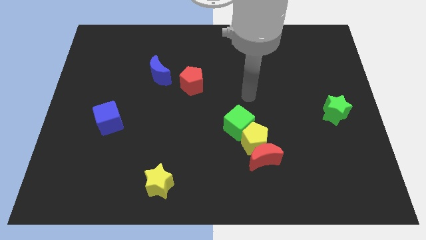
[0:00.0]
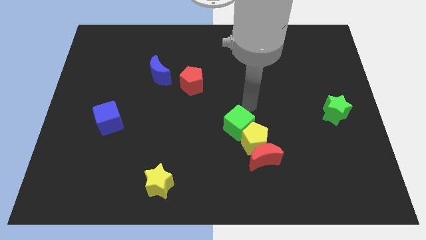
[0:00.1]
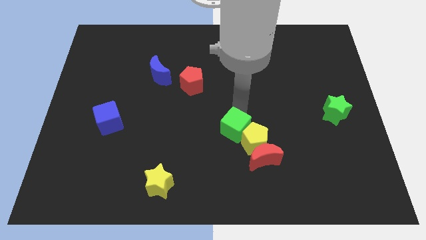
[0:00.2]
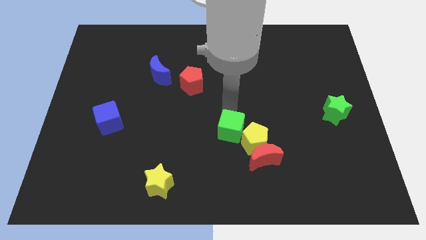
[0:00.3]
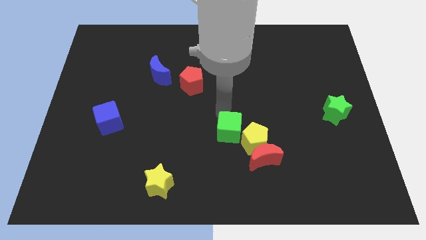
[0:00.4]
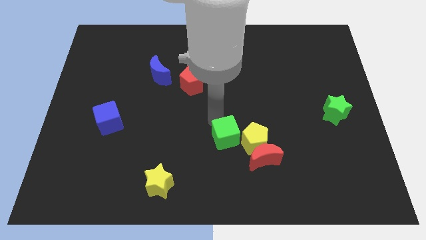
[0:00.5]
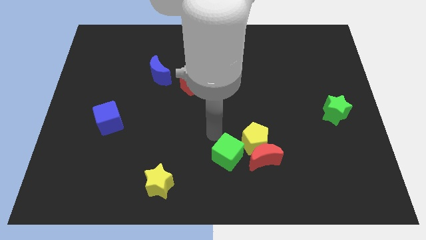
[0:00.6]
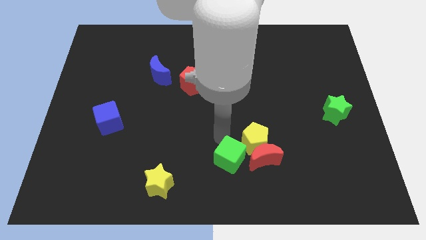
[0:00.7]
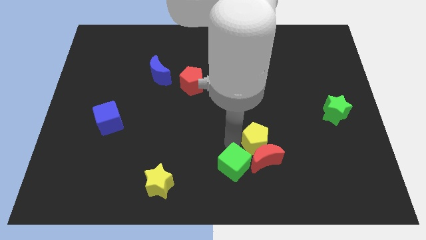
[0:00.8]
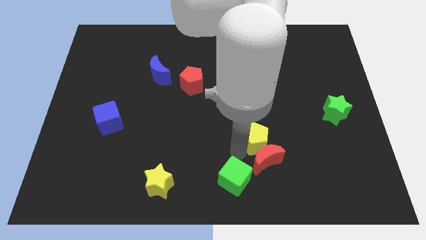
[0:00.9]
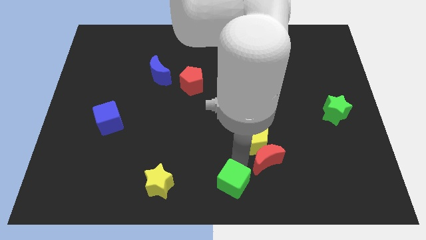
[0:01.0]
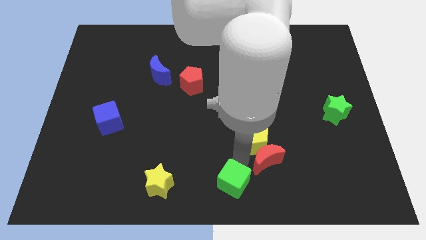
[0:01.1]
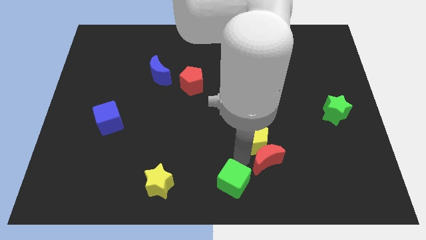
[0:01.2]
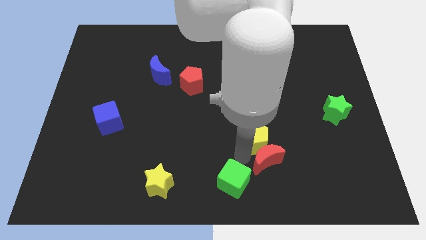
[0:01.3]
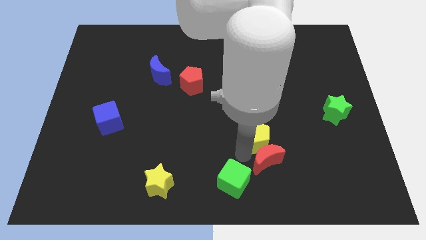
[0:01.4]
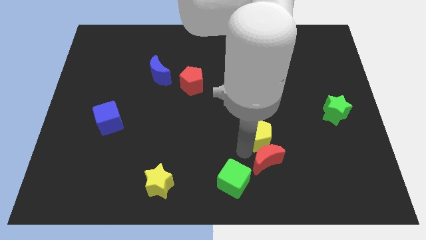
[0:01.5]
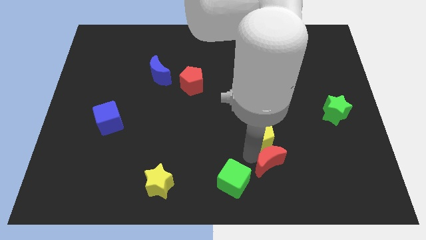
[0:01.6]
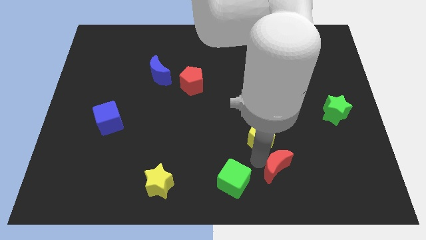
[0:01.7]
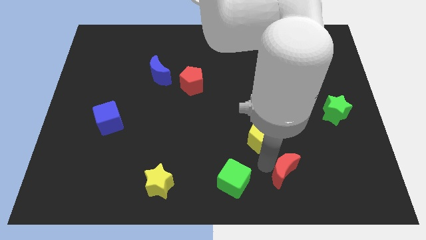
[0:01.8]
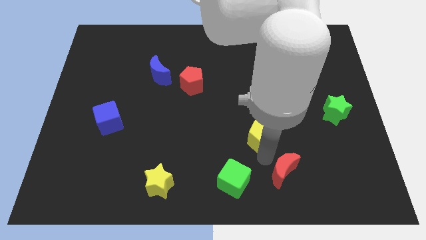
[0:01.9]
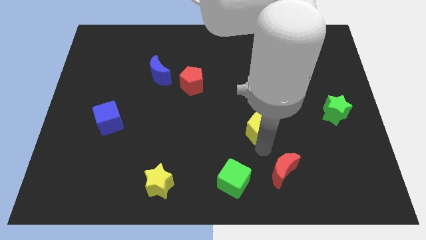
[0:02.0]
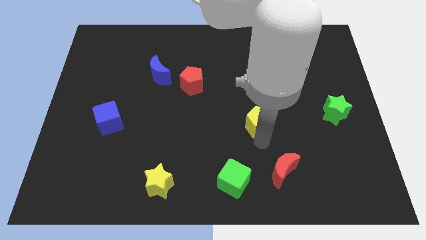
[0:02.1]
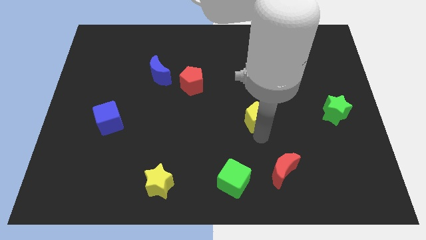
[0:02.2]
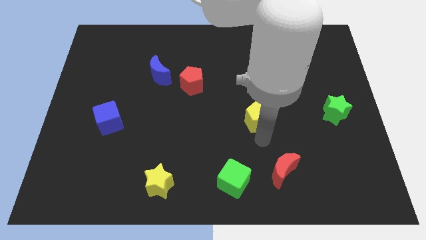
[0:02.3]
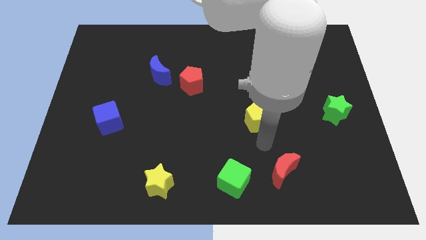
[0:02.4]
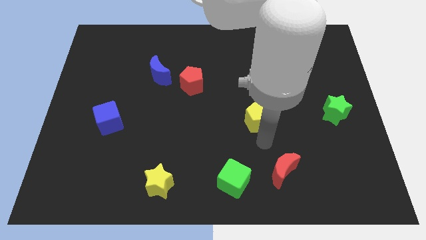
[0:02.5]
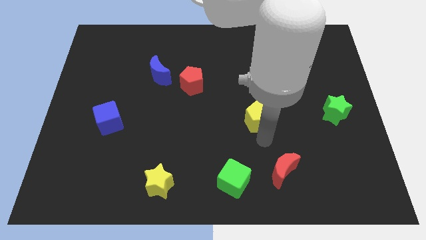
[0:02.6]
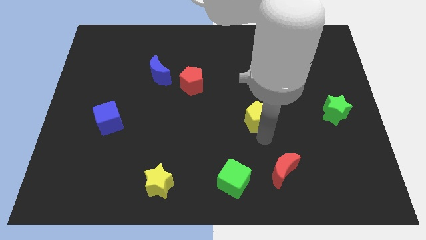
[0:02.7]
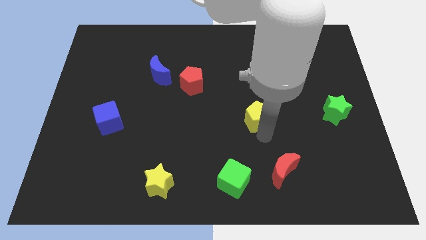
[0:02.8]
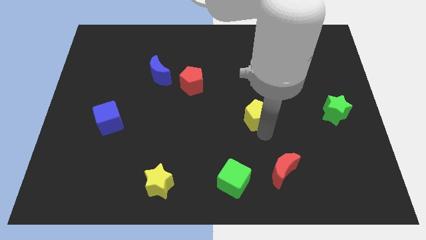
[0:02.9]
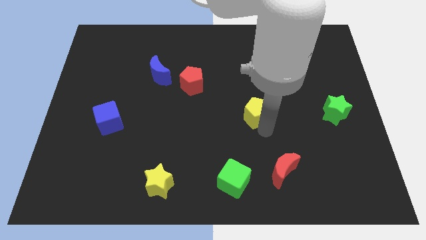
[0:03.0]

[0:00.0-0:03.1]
slightly slide the yellow pentagon upwards

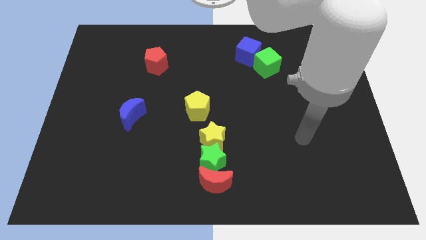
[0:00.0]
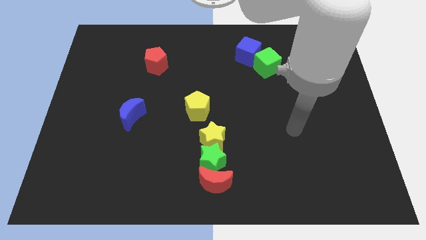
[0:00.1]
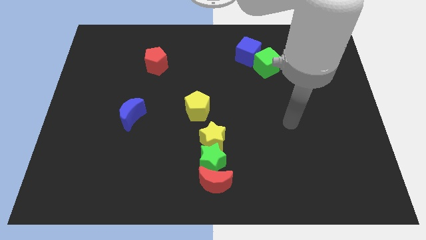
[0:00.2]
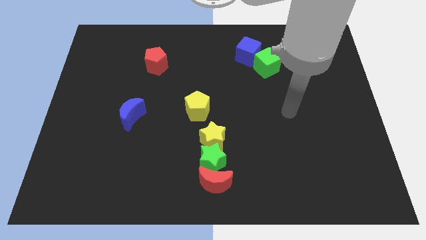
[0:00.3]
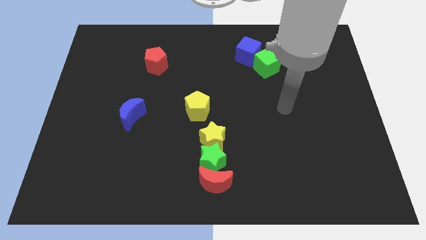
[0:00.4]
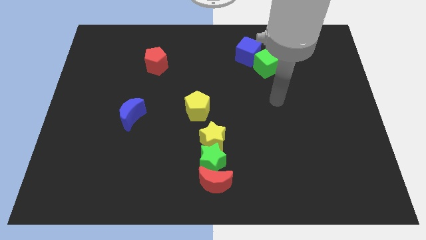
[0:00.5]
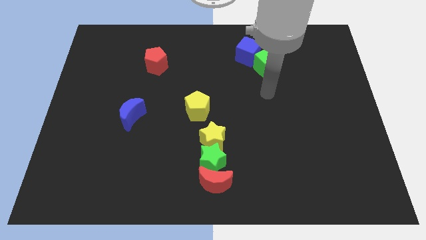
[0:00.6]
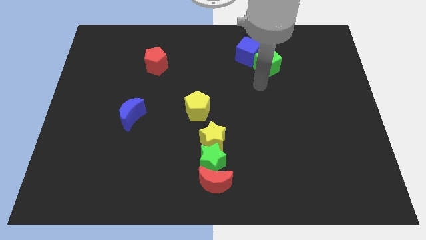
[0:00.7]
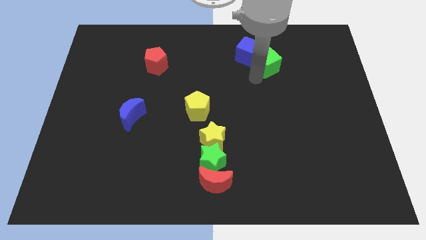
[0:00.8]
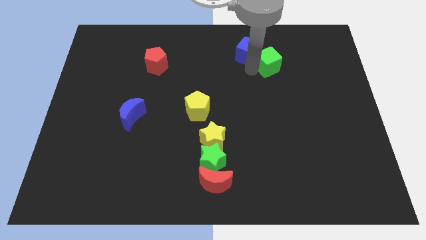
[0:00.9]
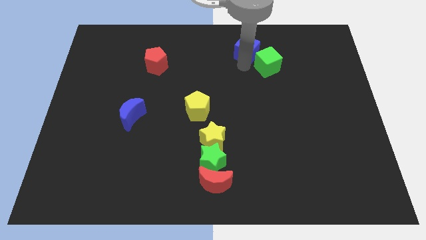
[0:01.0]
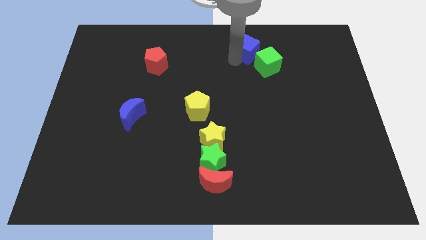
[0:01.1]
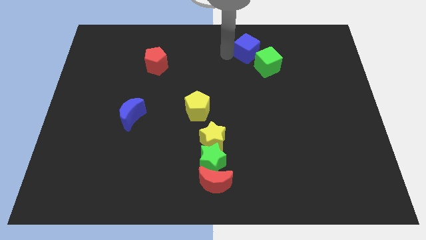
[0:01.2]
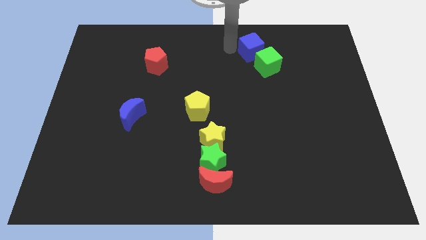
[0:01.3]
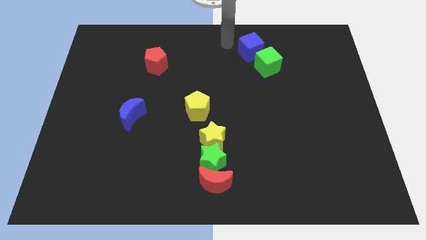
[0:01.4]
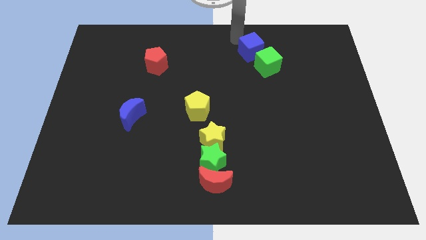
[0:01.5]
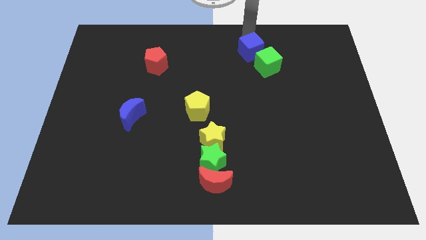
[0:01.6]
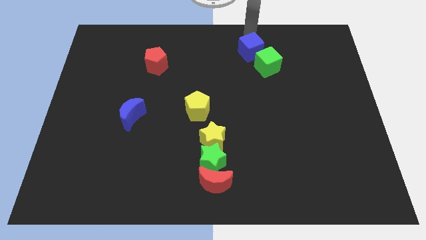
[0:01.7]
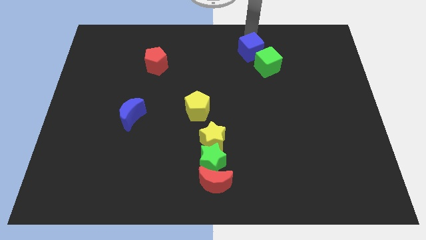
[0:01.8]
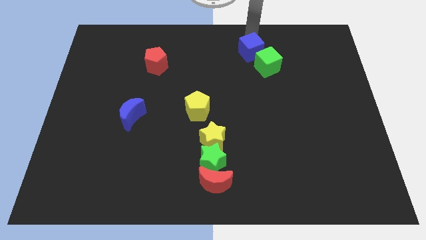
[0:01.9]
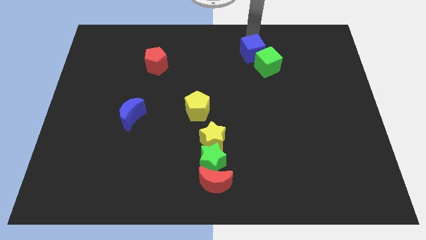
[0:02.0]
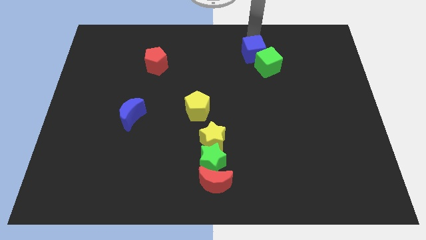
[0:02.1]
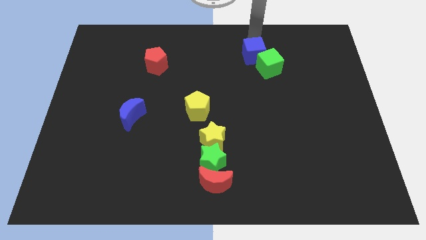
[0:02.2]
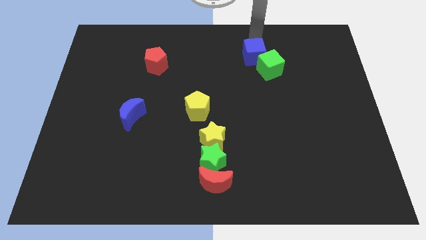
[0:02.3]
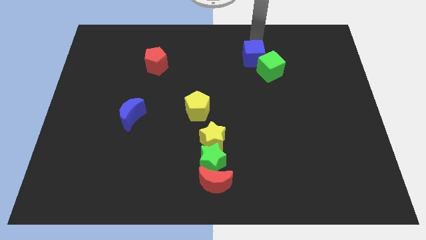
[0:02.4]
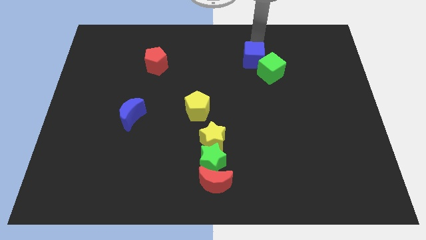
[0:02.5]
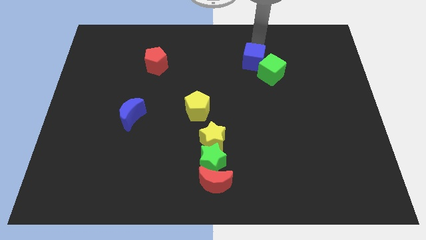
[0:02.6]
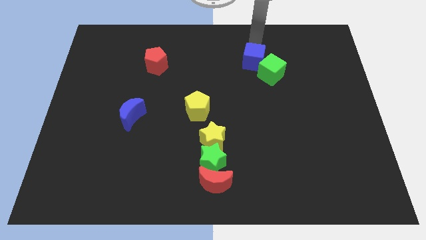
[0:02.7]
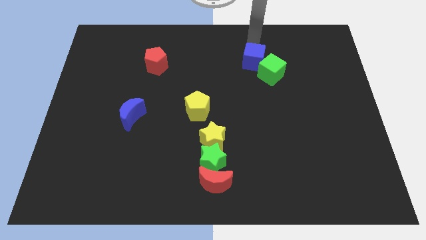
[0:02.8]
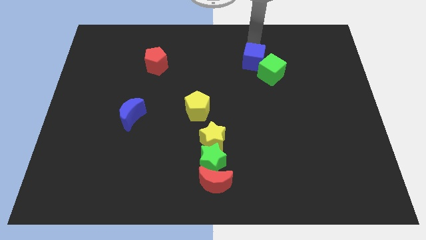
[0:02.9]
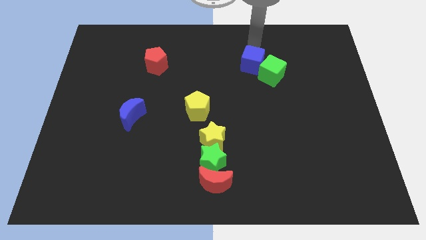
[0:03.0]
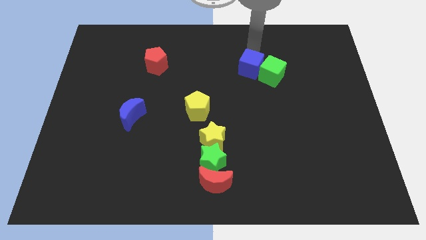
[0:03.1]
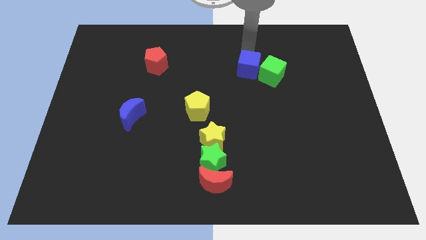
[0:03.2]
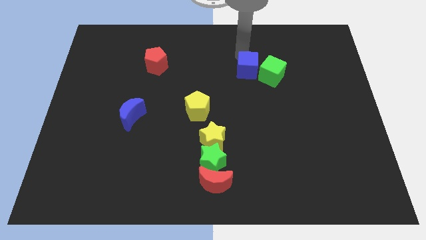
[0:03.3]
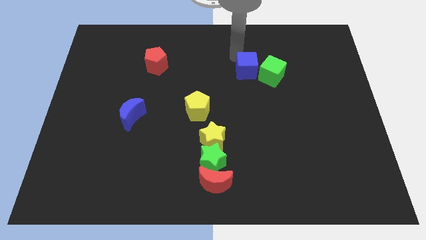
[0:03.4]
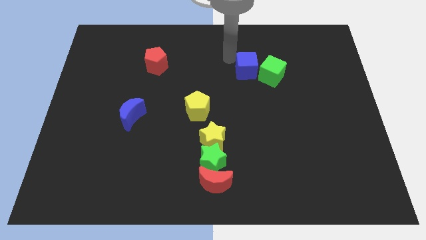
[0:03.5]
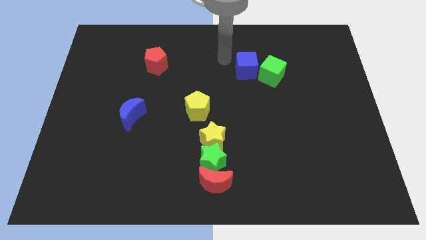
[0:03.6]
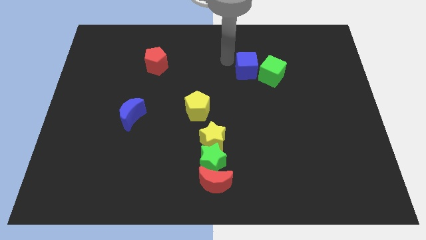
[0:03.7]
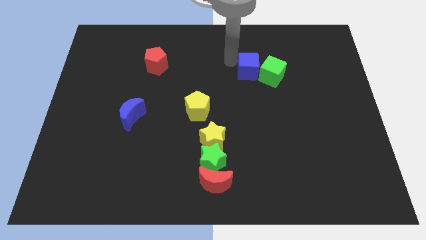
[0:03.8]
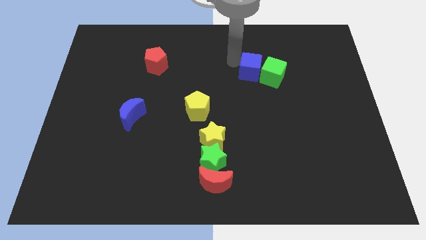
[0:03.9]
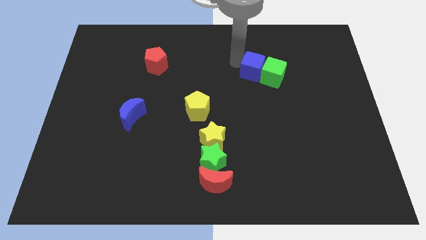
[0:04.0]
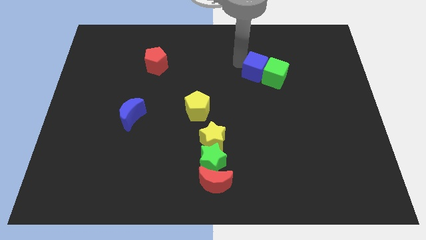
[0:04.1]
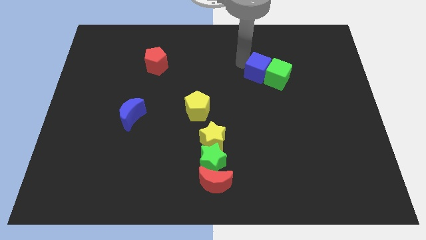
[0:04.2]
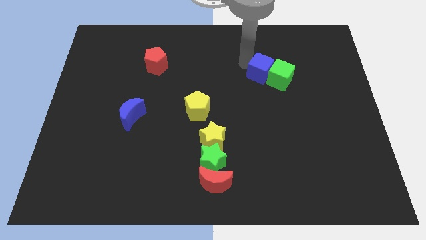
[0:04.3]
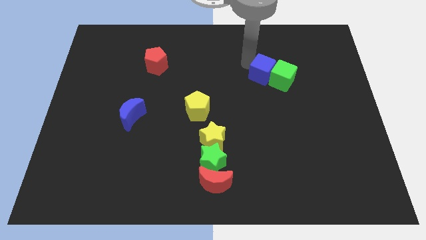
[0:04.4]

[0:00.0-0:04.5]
slightly move the blue cube downwards and to the right
